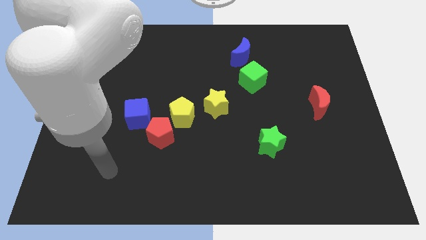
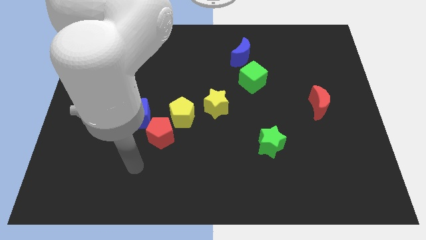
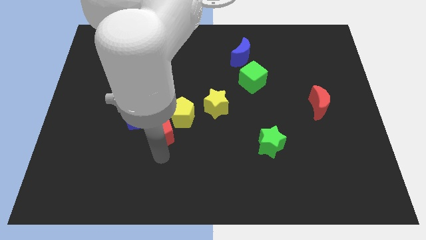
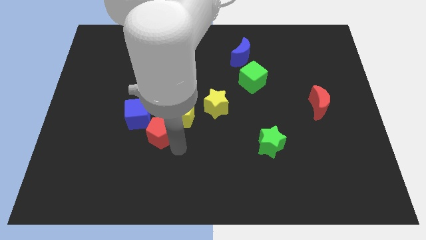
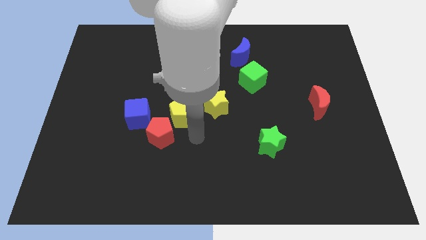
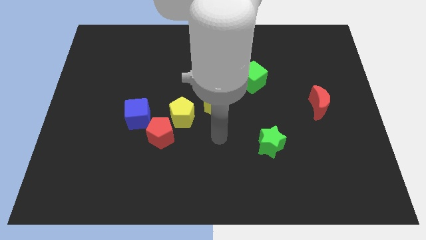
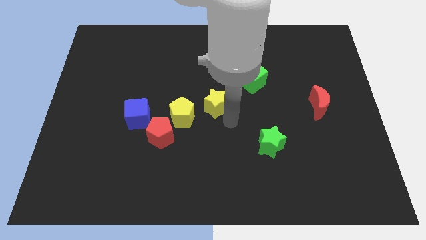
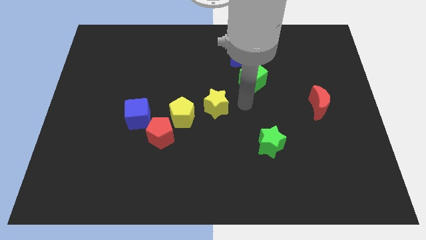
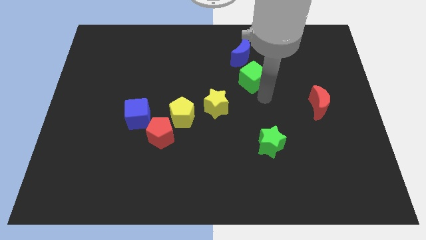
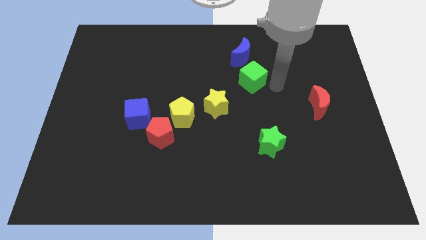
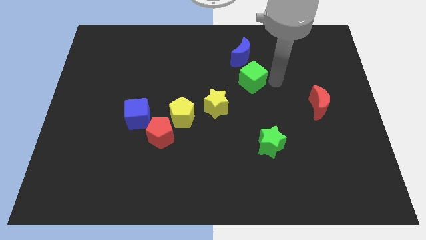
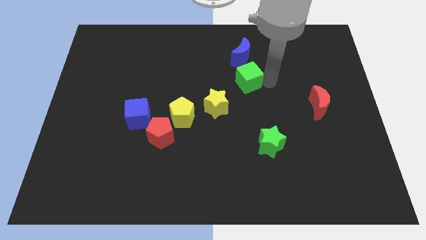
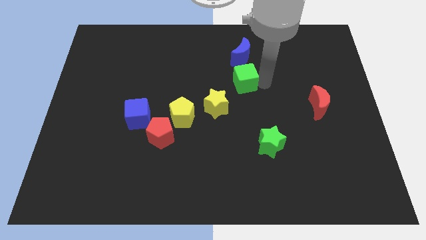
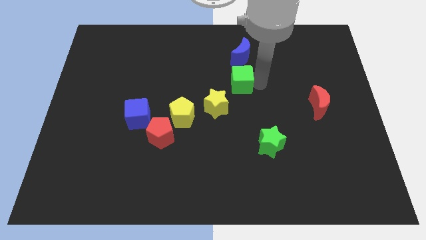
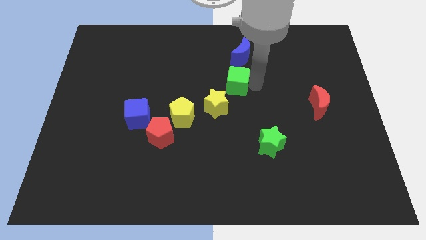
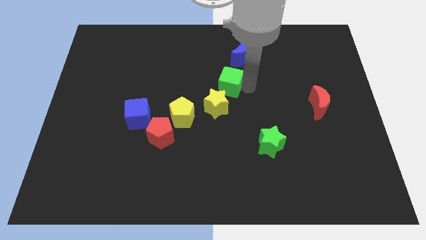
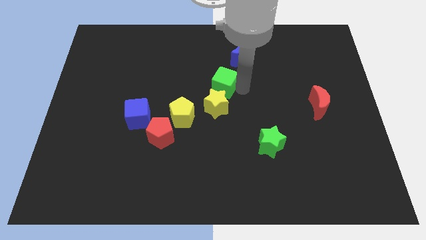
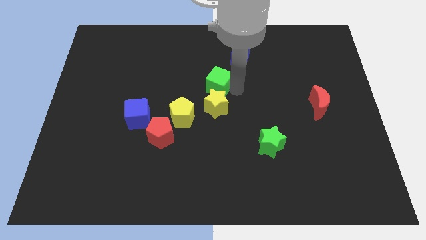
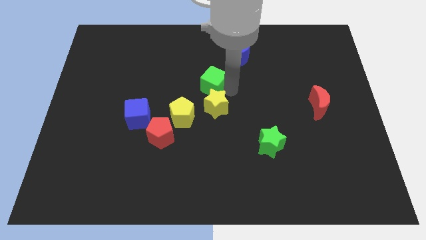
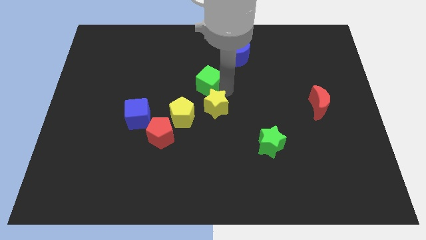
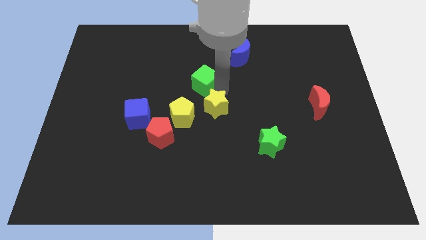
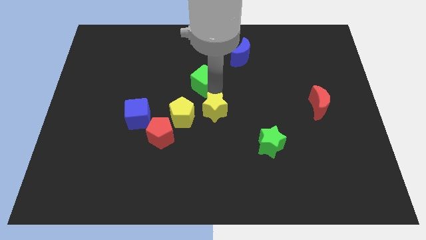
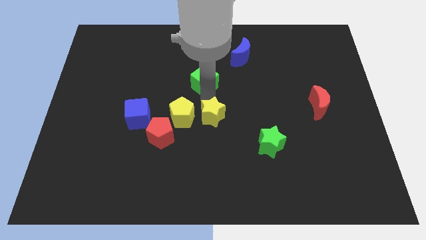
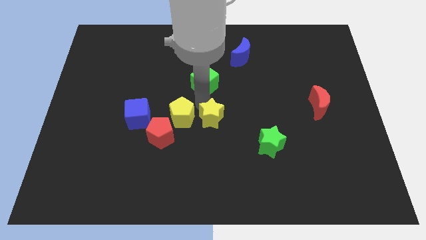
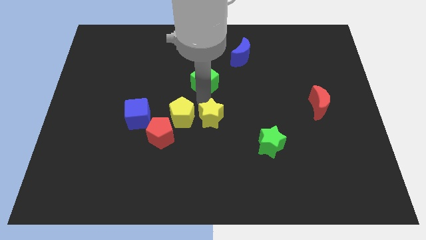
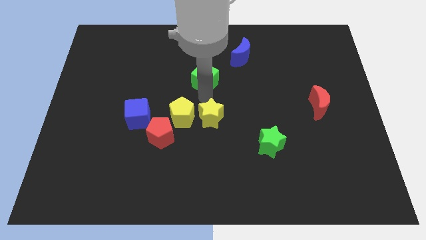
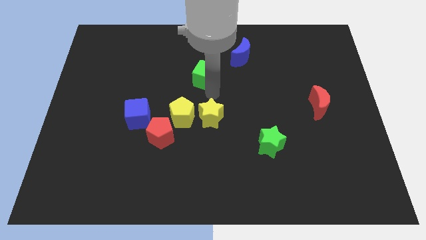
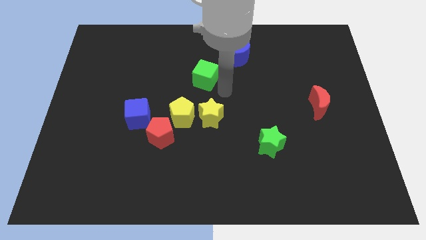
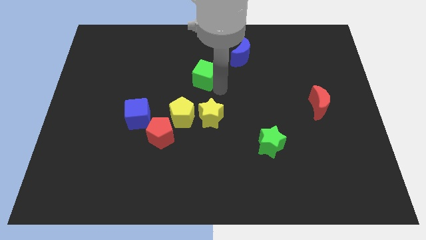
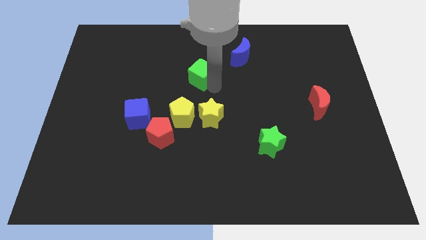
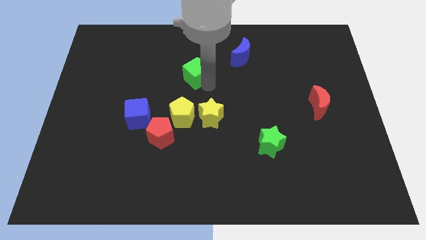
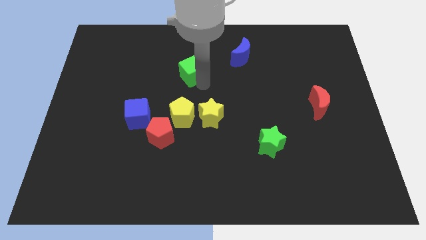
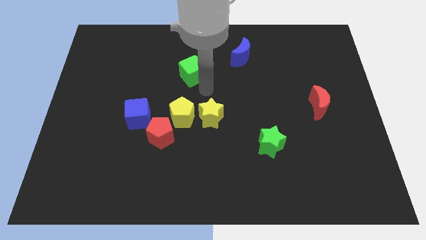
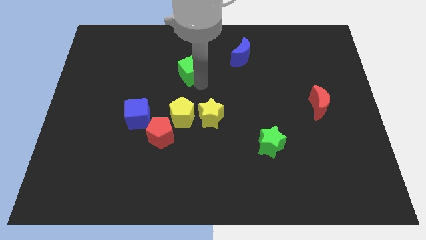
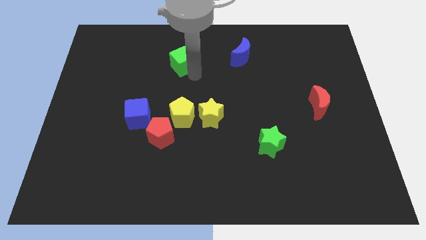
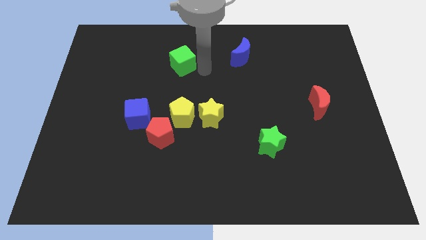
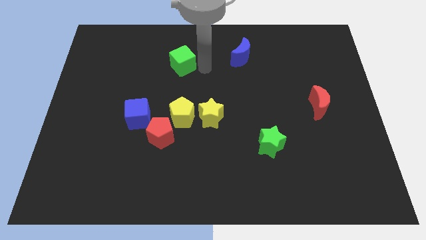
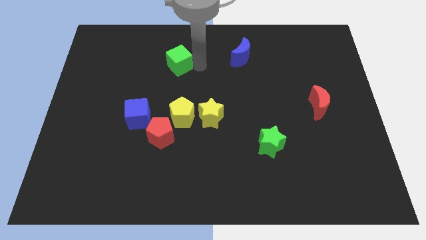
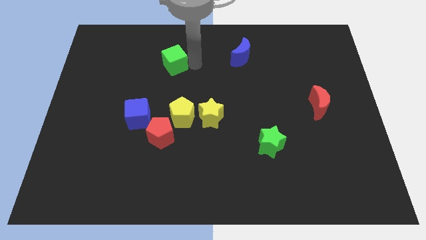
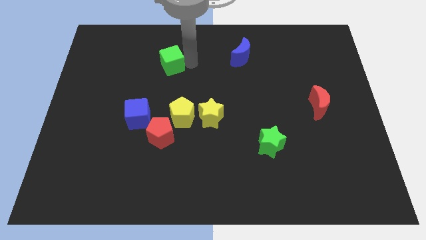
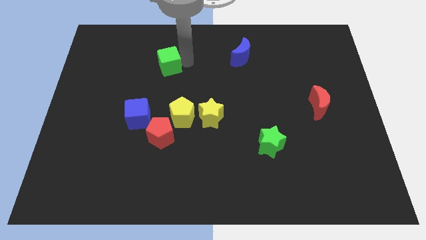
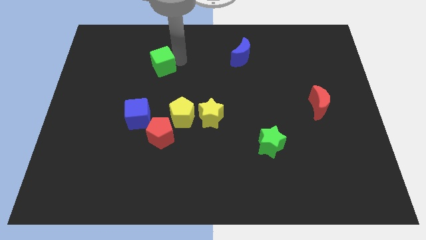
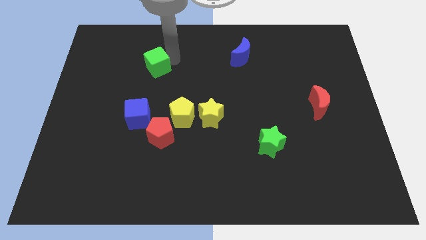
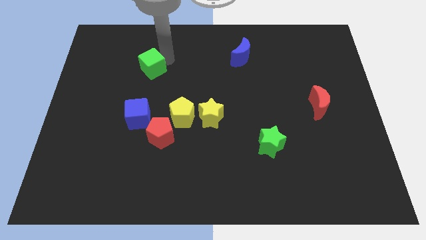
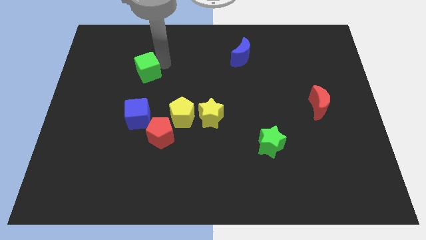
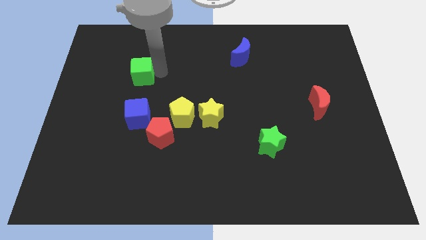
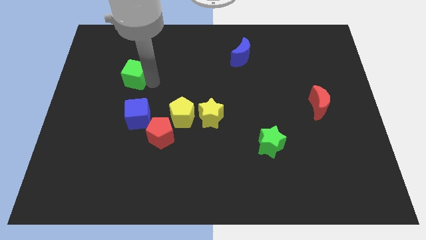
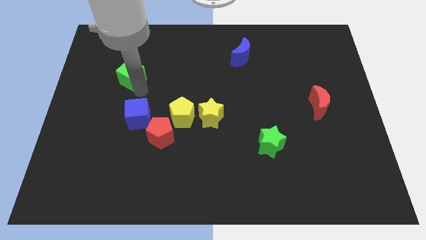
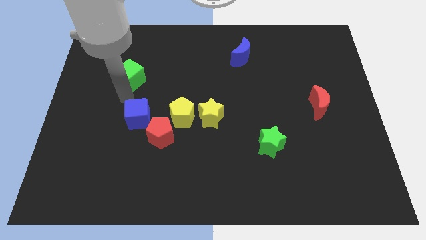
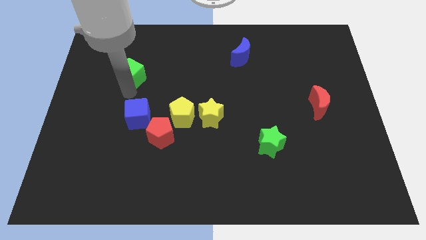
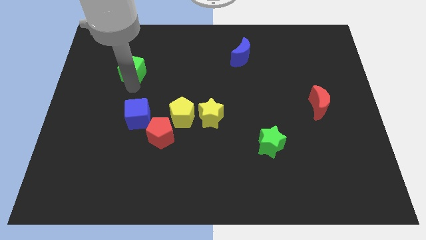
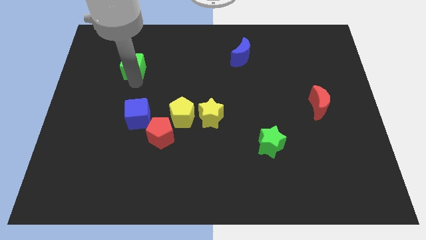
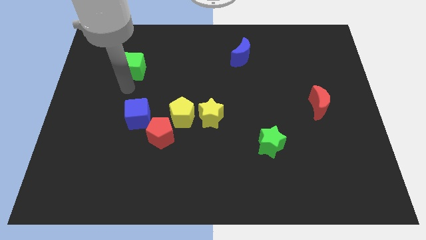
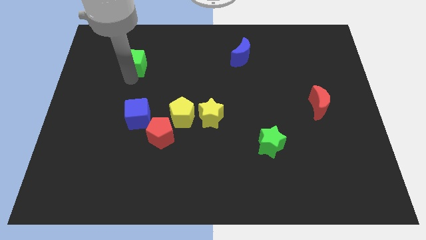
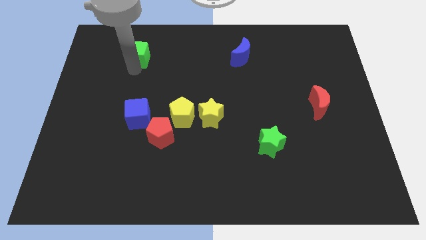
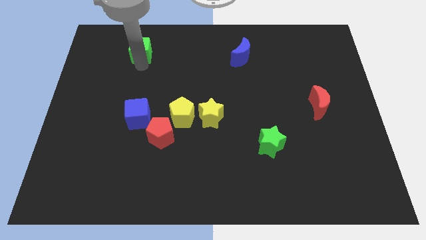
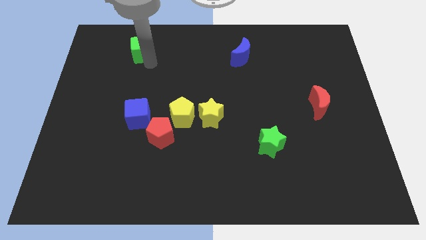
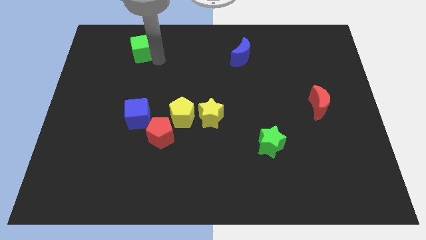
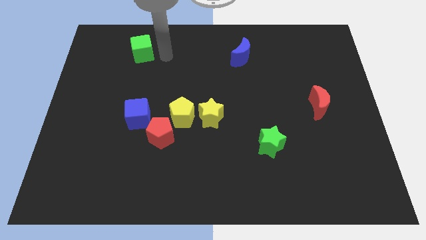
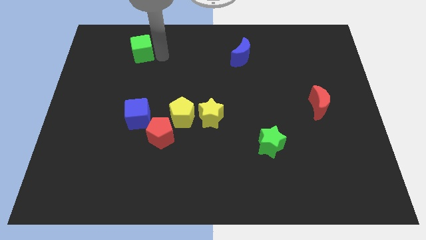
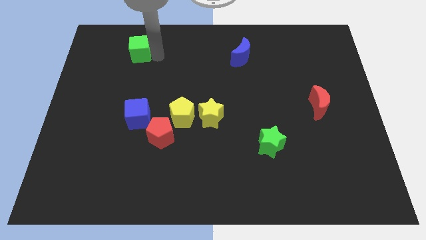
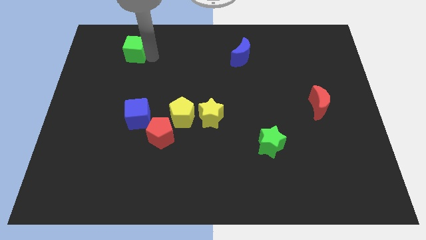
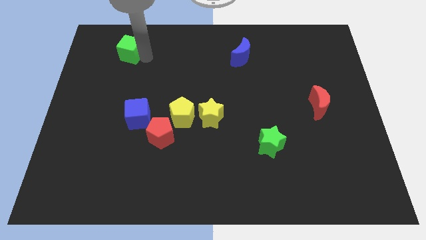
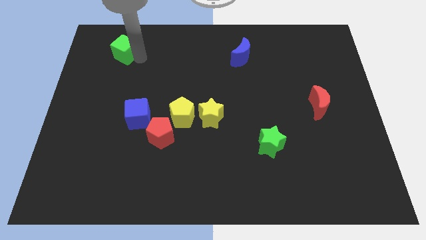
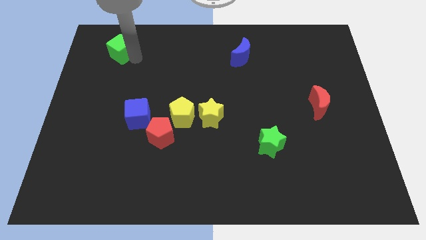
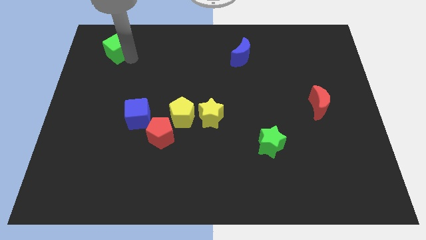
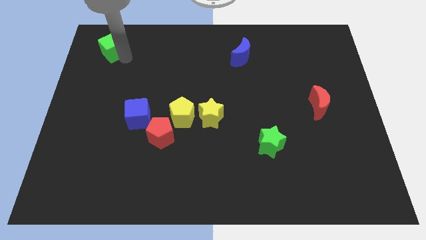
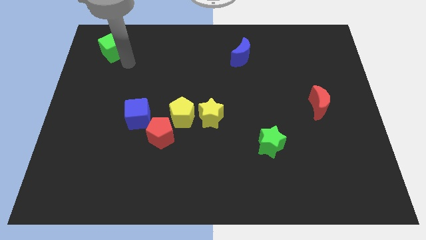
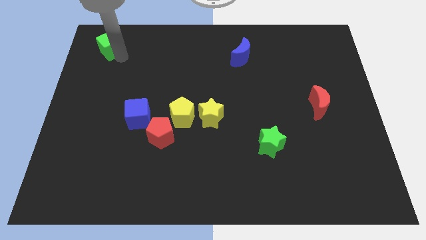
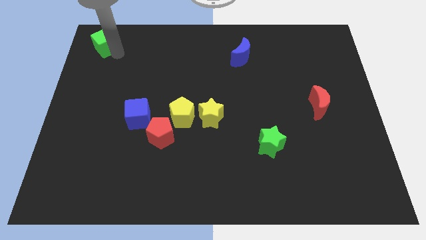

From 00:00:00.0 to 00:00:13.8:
slide the green cube to the upper left corner
